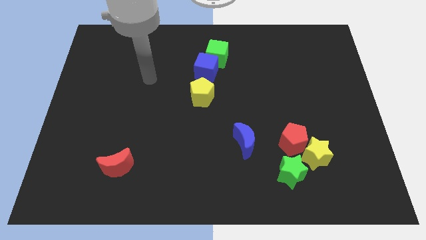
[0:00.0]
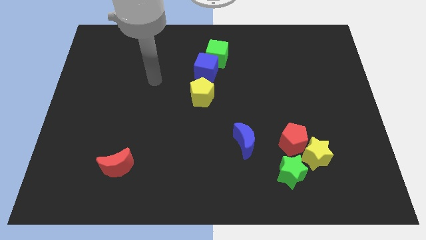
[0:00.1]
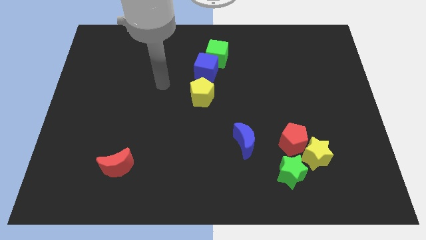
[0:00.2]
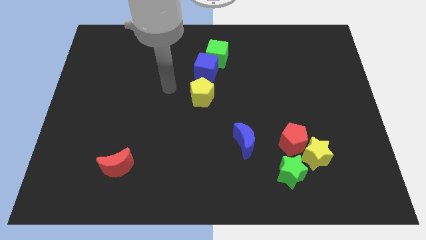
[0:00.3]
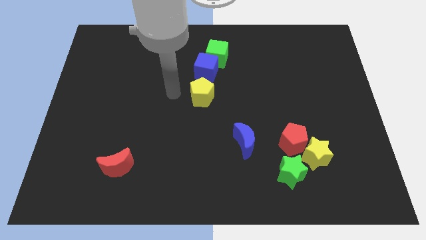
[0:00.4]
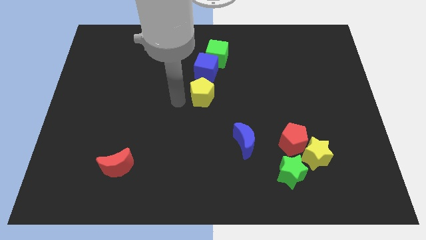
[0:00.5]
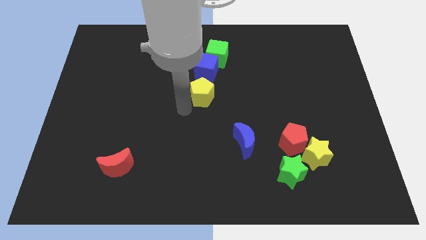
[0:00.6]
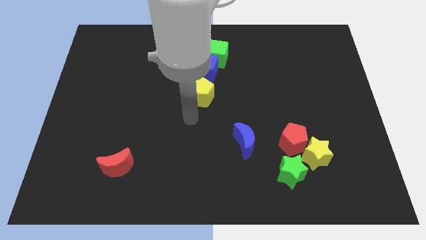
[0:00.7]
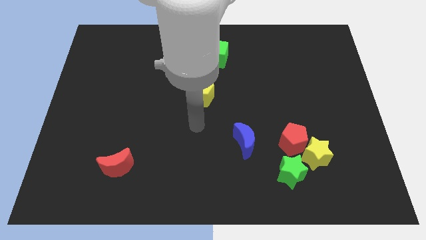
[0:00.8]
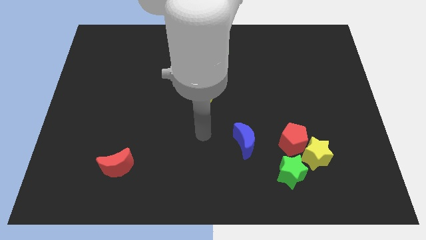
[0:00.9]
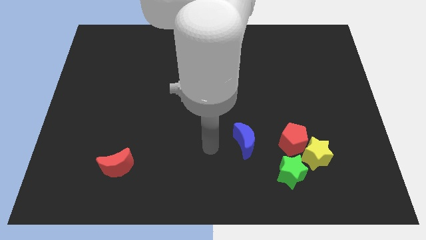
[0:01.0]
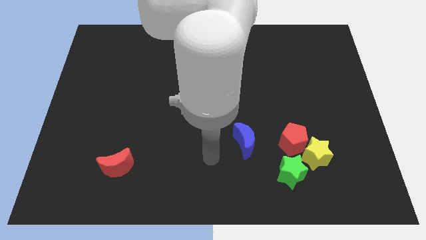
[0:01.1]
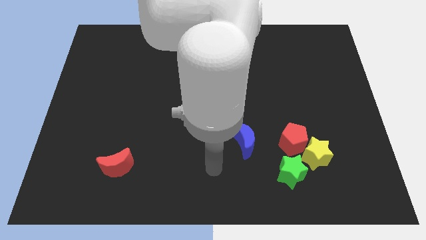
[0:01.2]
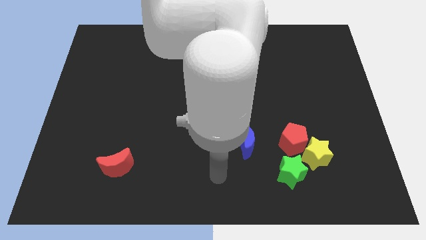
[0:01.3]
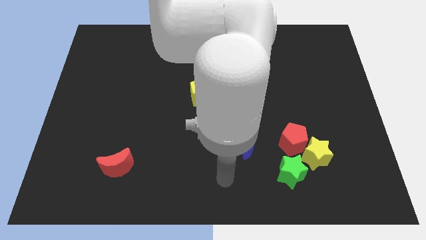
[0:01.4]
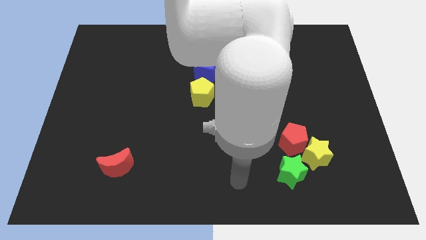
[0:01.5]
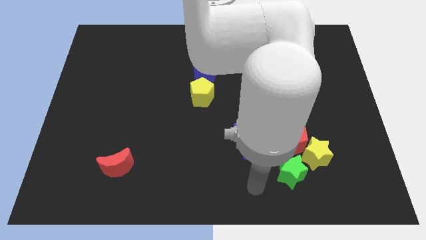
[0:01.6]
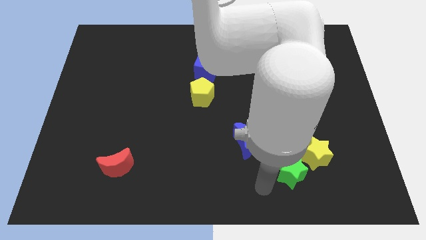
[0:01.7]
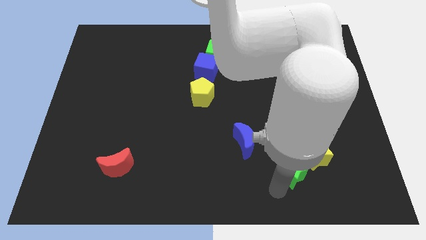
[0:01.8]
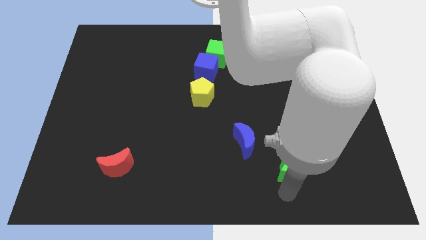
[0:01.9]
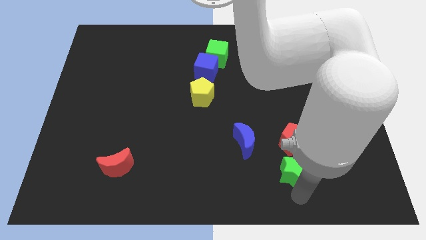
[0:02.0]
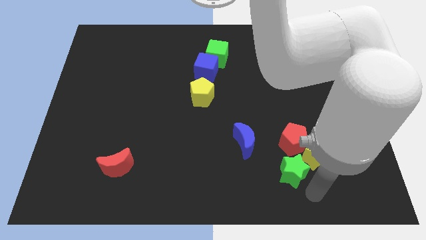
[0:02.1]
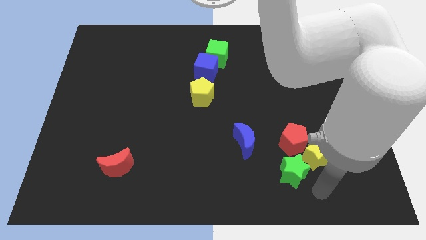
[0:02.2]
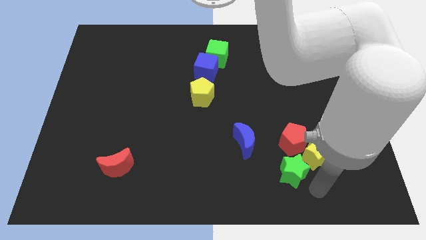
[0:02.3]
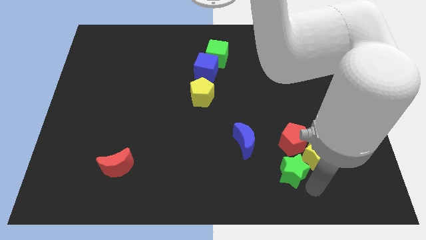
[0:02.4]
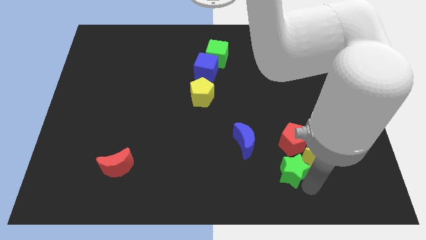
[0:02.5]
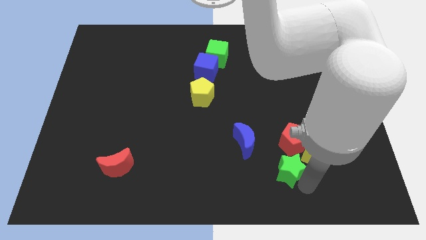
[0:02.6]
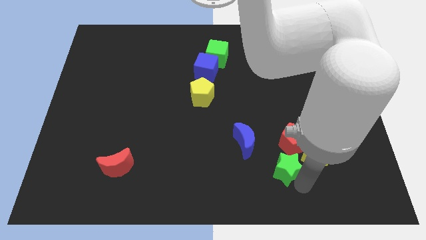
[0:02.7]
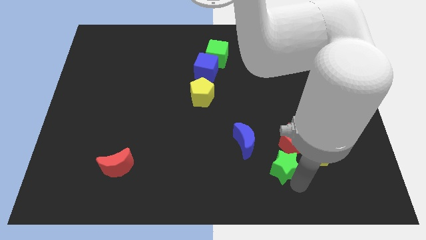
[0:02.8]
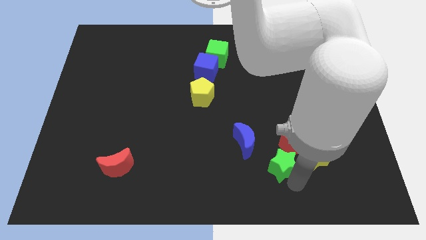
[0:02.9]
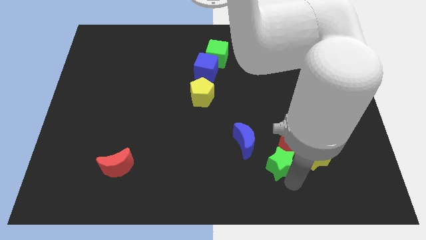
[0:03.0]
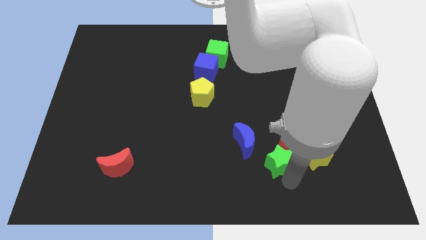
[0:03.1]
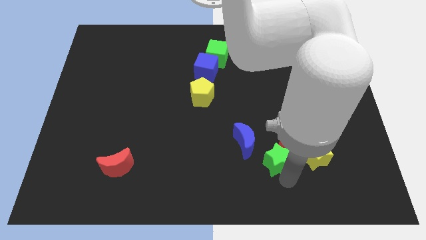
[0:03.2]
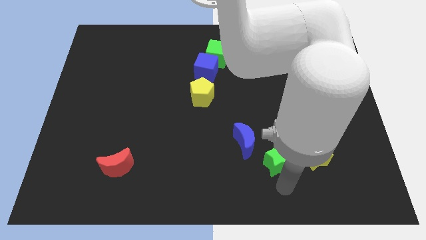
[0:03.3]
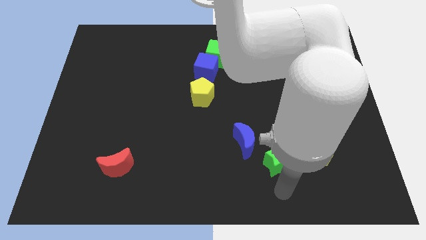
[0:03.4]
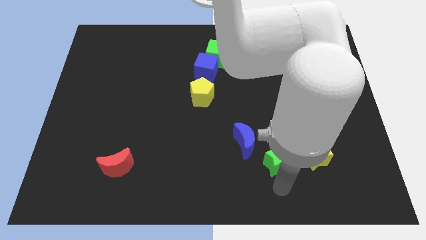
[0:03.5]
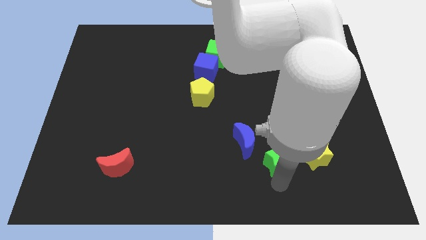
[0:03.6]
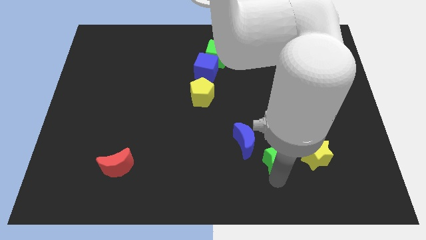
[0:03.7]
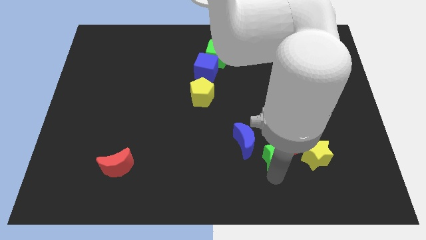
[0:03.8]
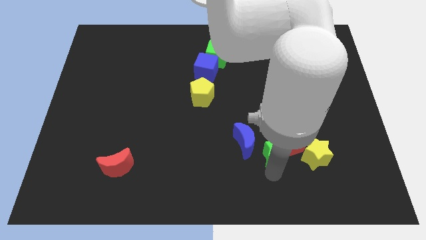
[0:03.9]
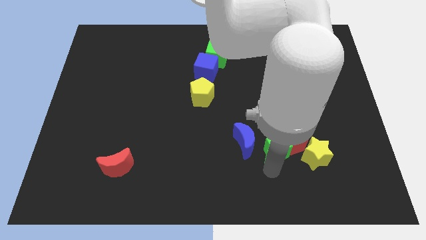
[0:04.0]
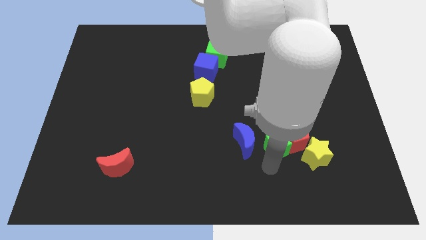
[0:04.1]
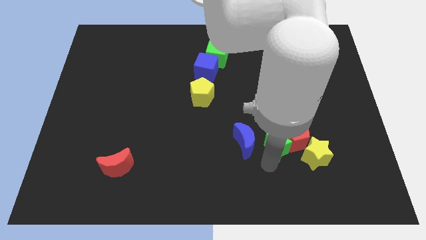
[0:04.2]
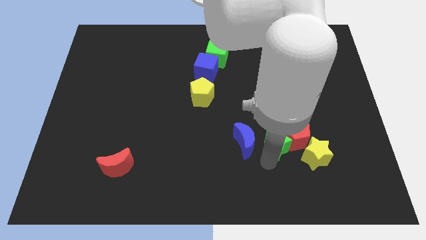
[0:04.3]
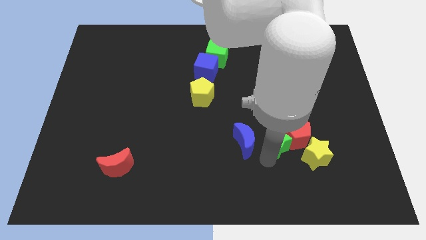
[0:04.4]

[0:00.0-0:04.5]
slide the green star a little bit upwards

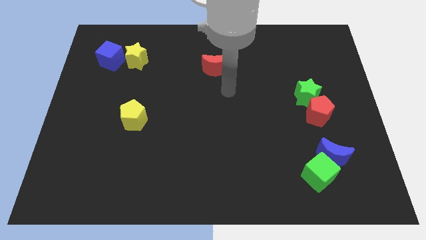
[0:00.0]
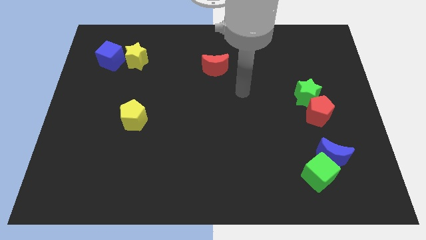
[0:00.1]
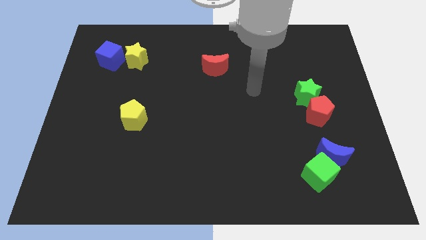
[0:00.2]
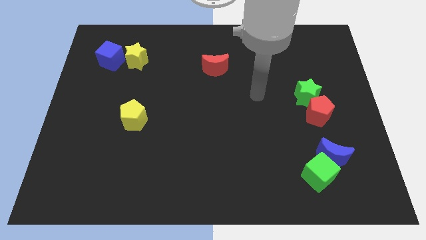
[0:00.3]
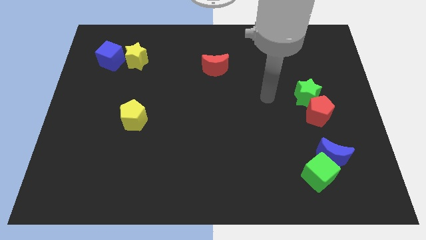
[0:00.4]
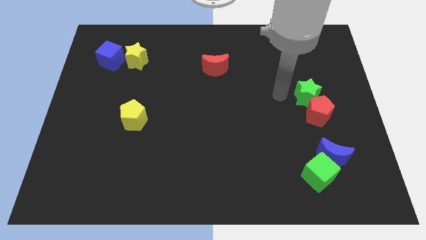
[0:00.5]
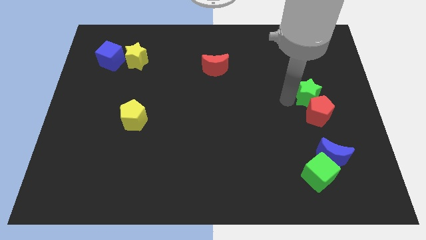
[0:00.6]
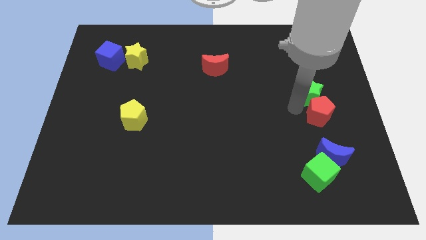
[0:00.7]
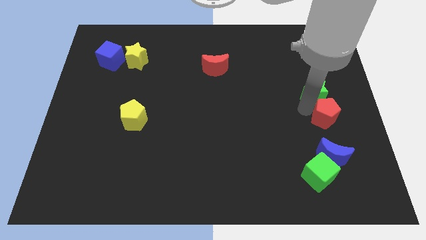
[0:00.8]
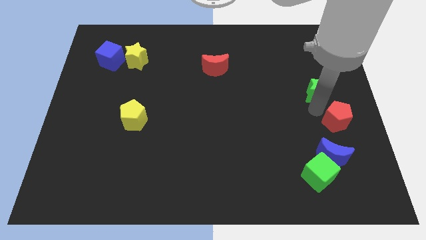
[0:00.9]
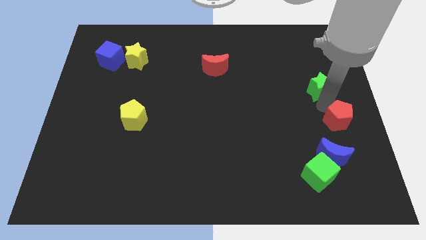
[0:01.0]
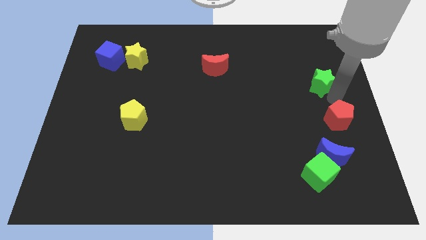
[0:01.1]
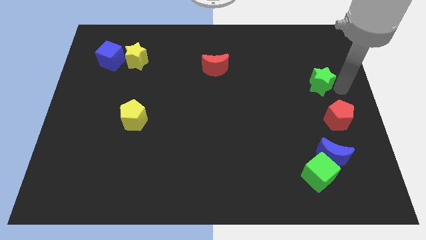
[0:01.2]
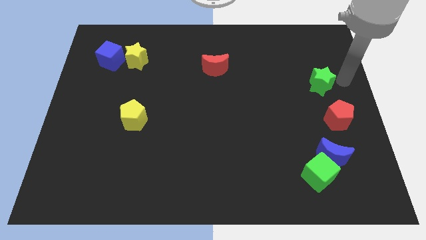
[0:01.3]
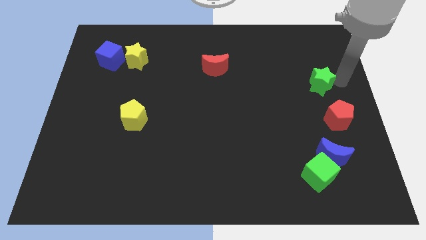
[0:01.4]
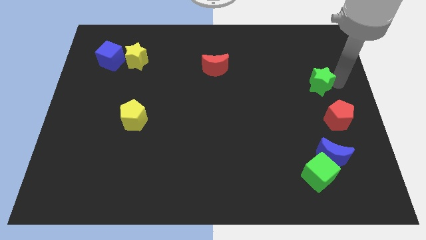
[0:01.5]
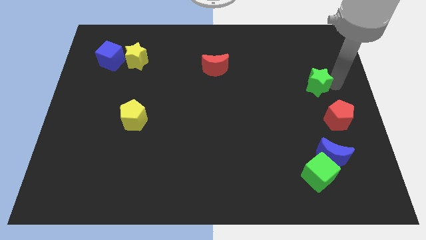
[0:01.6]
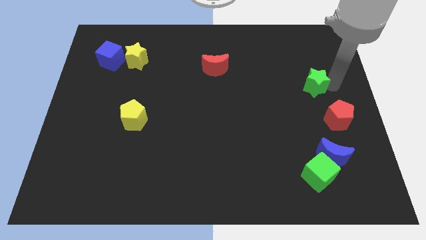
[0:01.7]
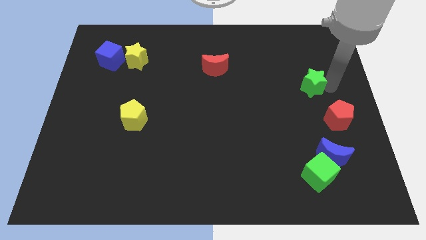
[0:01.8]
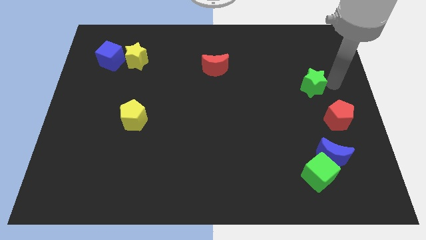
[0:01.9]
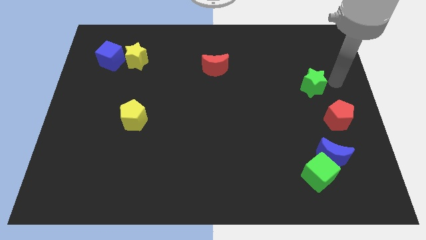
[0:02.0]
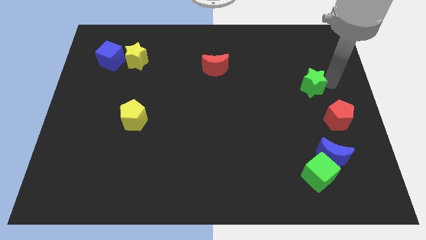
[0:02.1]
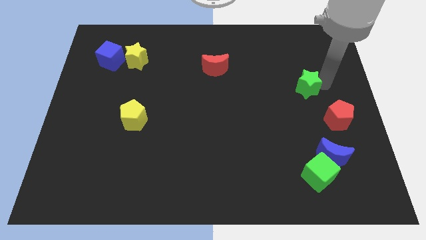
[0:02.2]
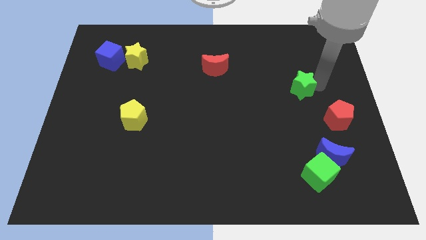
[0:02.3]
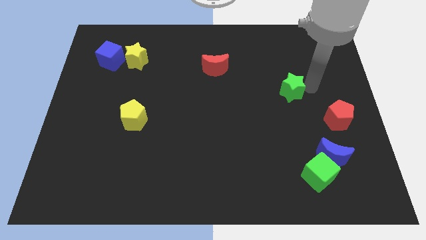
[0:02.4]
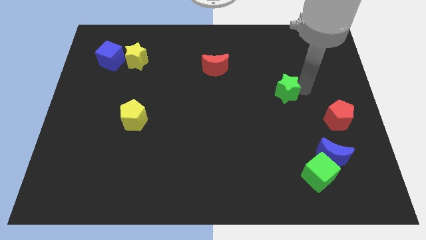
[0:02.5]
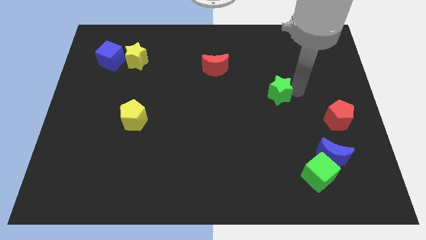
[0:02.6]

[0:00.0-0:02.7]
slightly push the green star left

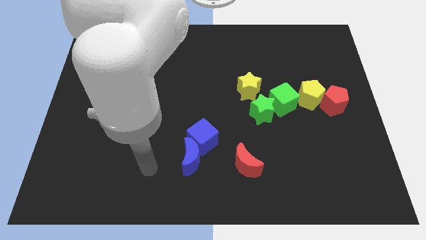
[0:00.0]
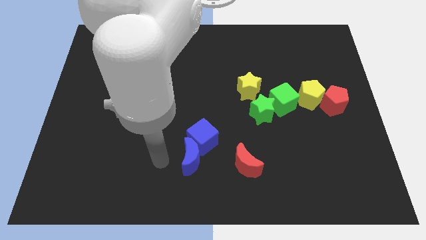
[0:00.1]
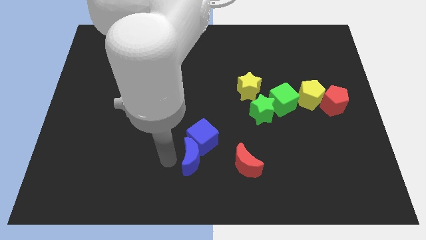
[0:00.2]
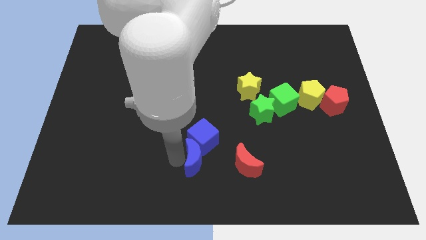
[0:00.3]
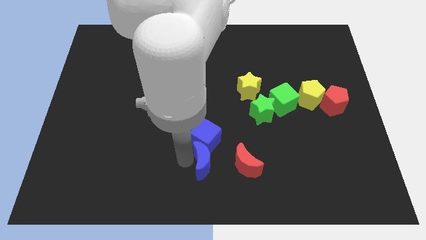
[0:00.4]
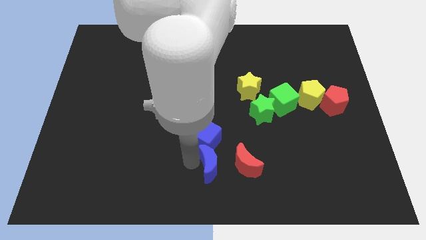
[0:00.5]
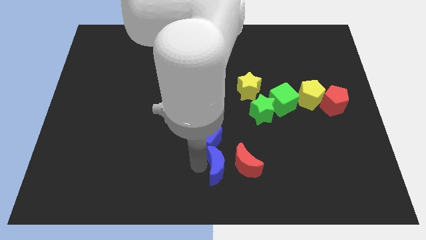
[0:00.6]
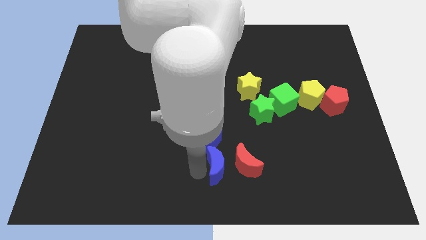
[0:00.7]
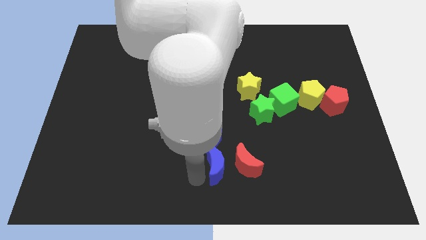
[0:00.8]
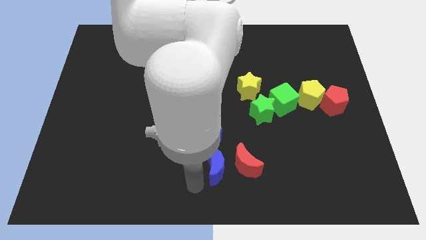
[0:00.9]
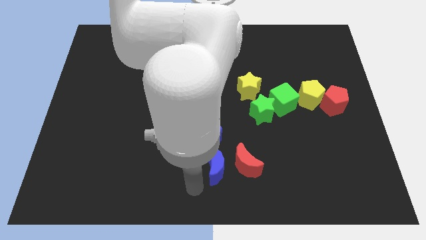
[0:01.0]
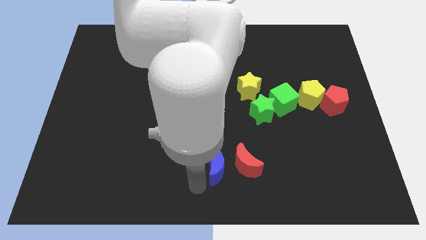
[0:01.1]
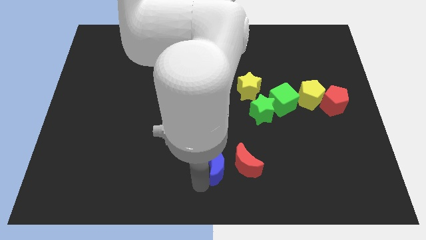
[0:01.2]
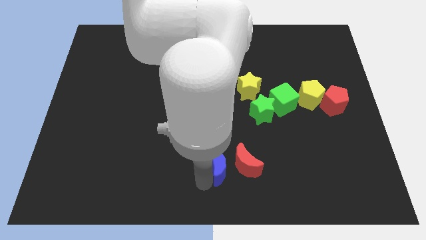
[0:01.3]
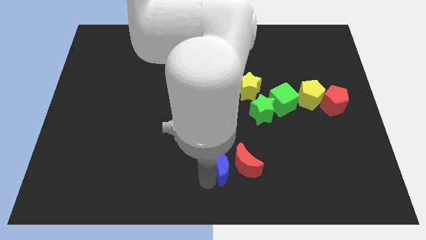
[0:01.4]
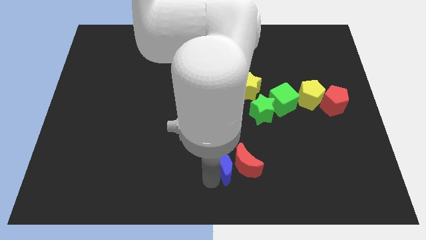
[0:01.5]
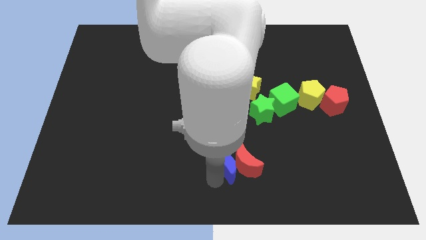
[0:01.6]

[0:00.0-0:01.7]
move the blue moon to the right slightly
